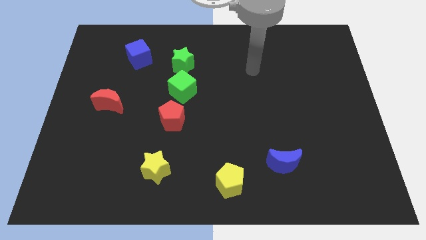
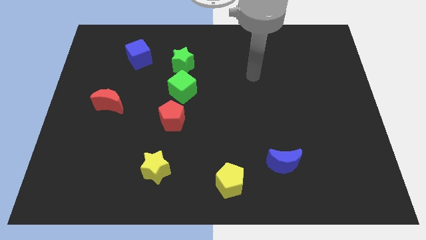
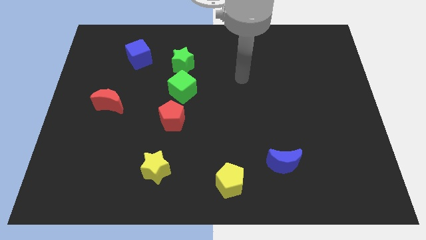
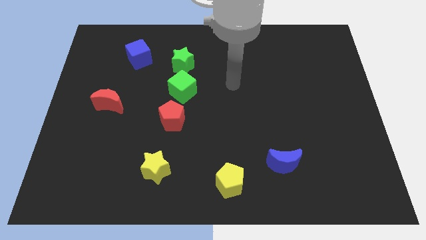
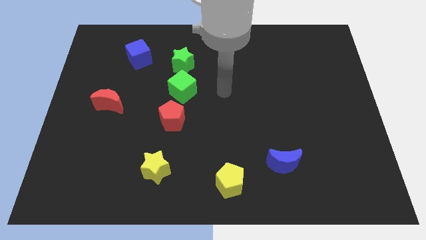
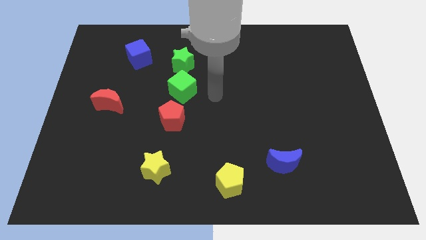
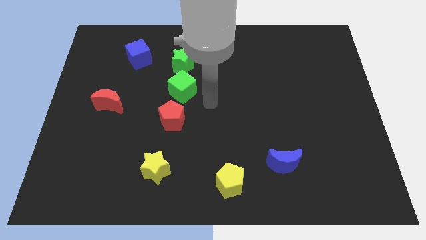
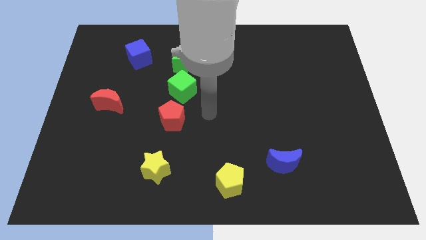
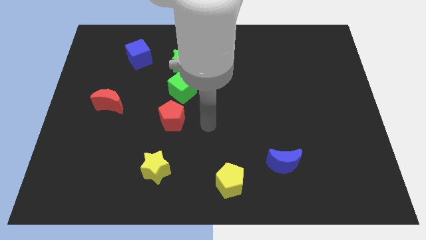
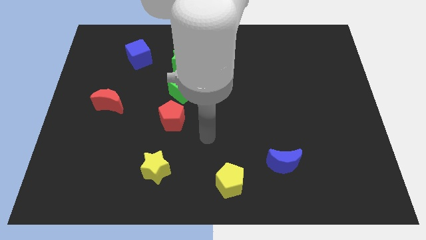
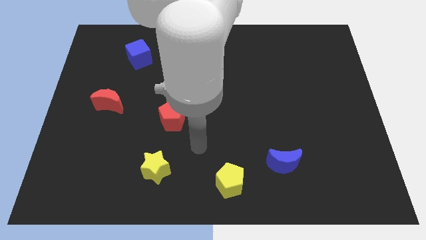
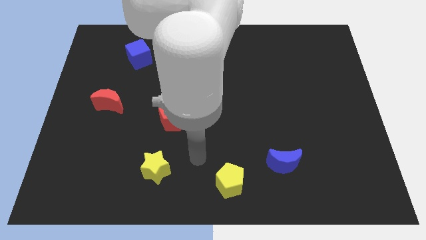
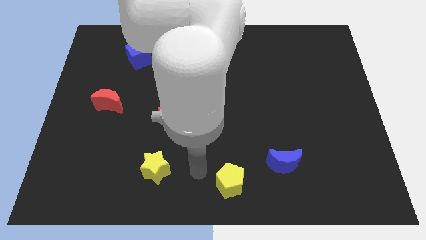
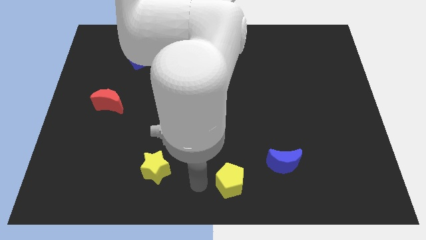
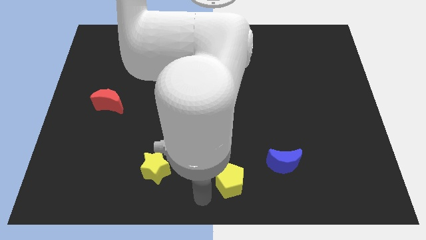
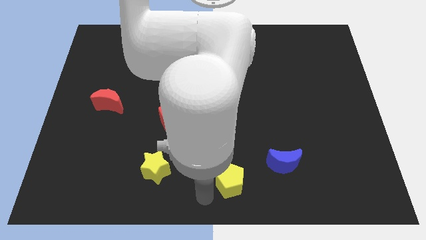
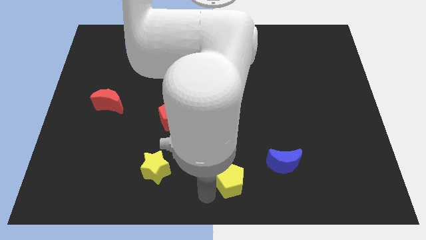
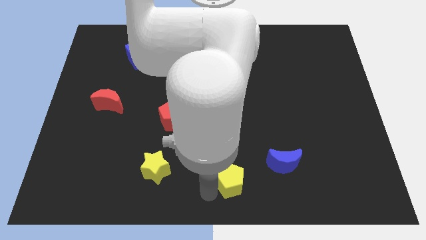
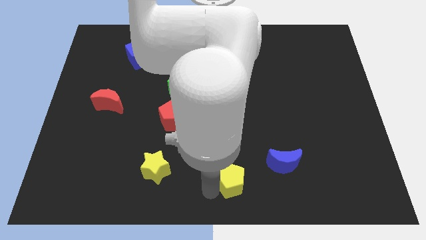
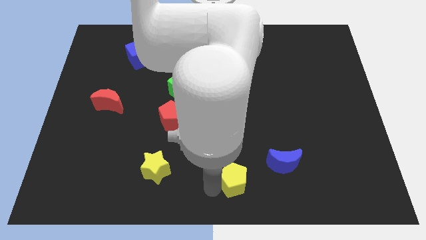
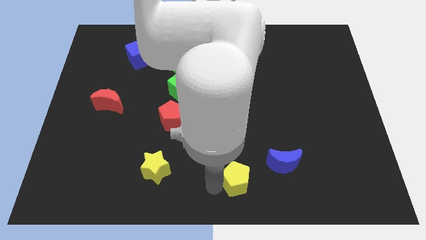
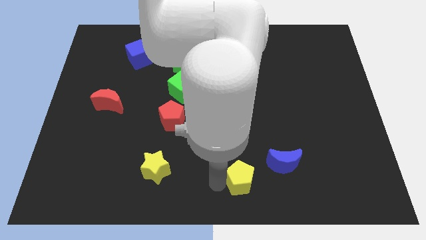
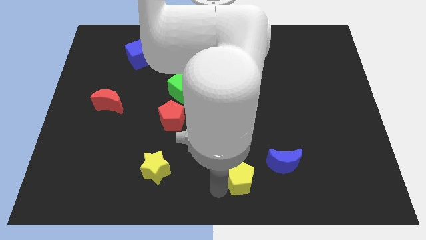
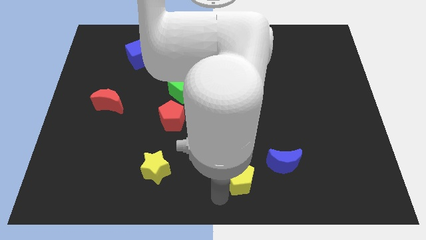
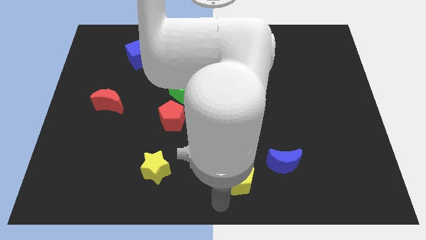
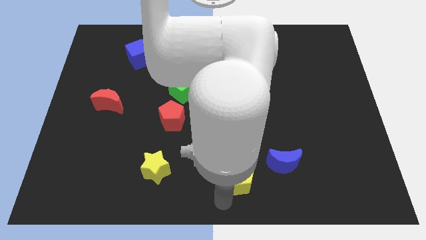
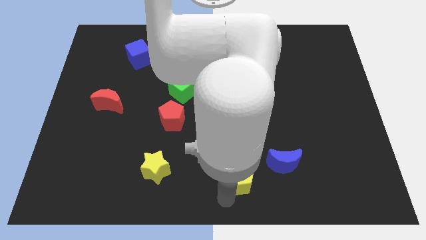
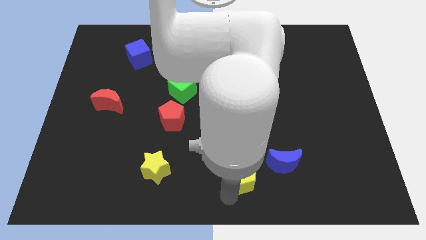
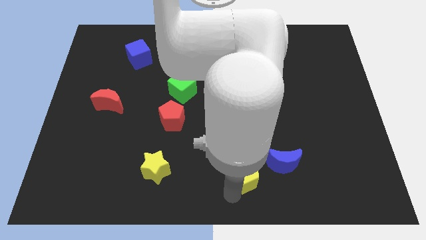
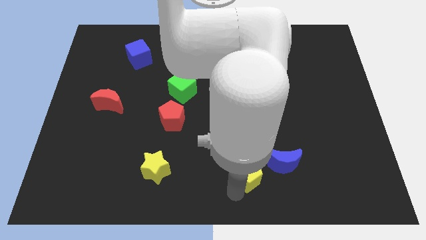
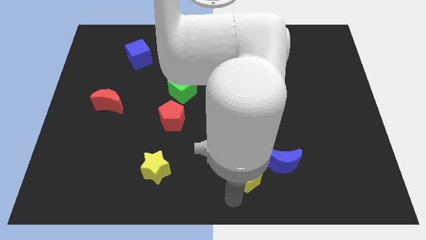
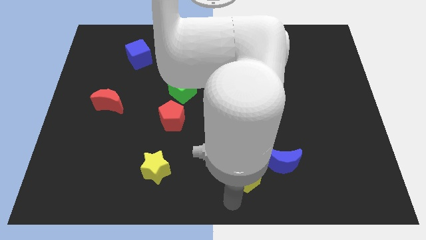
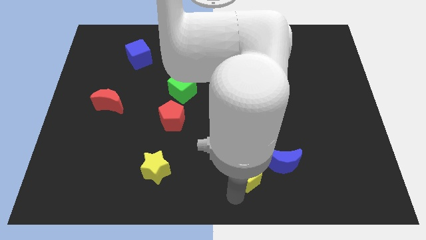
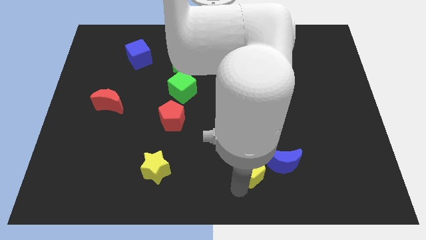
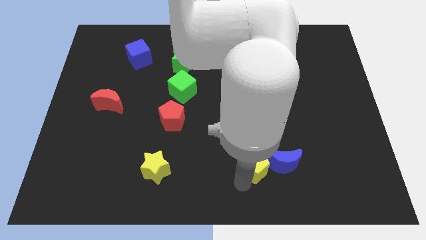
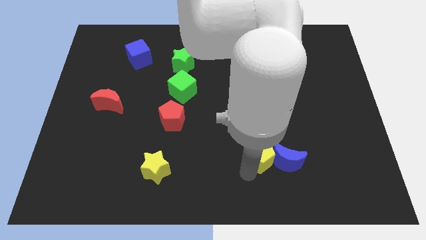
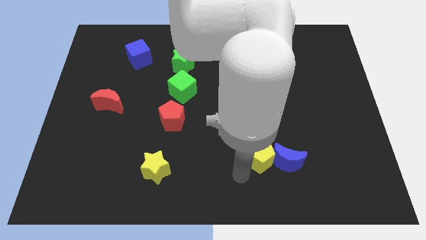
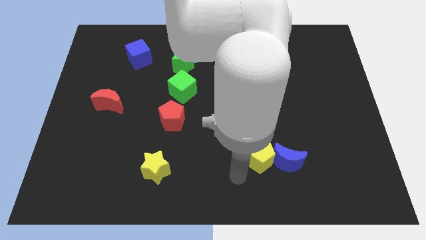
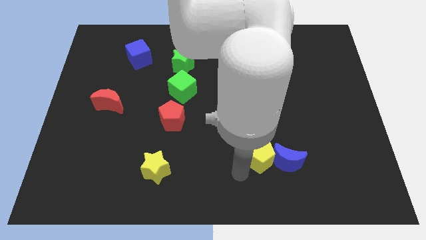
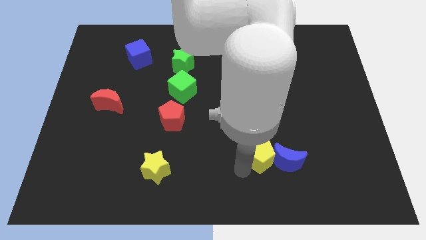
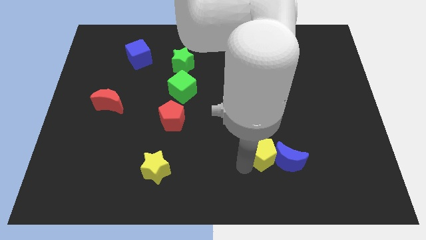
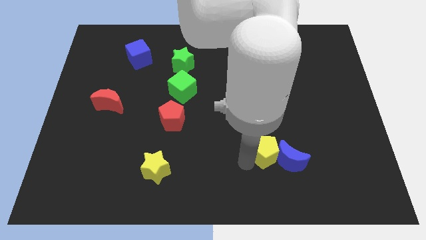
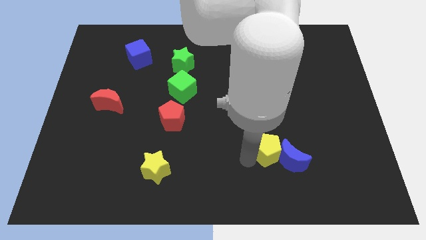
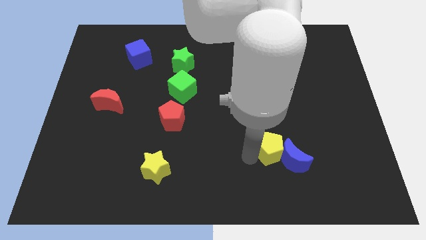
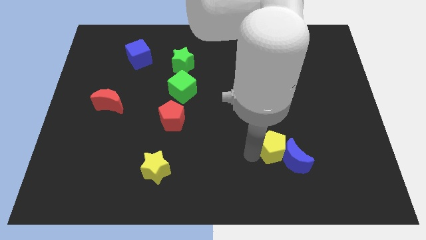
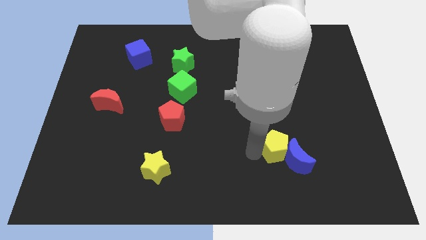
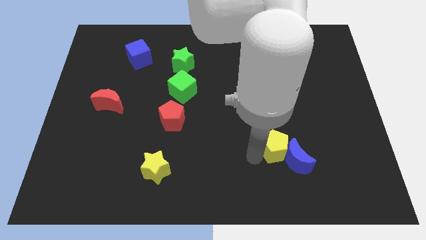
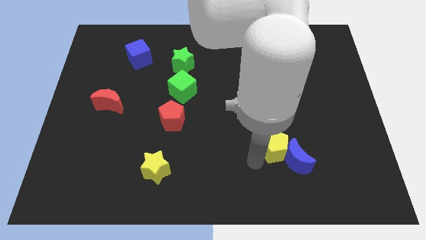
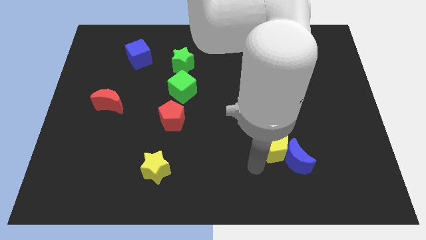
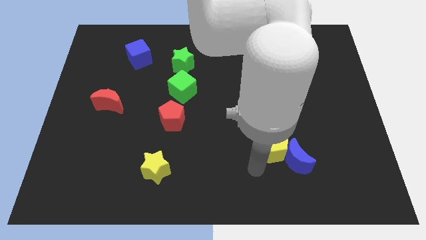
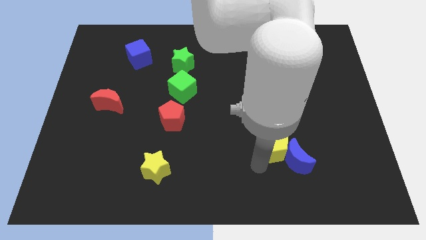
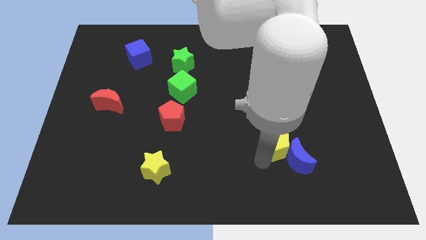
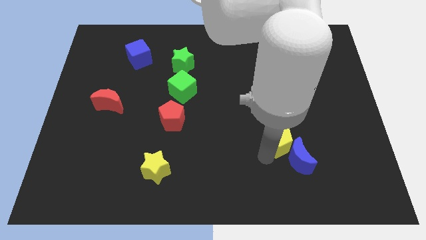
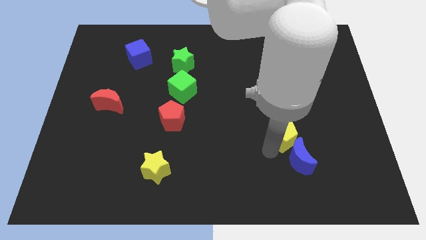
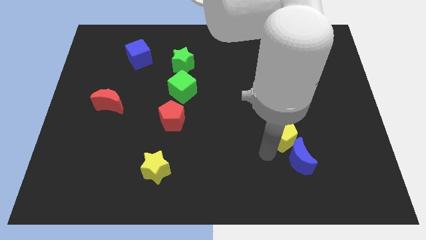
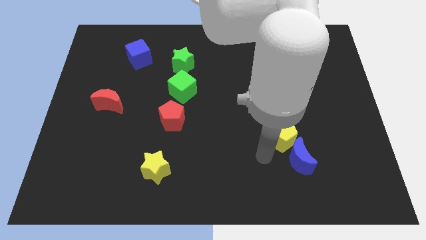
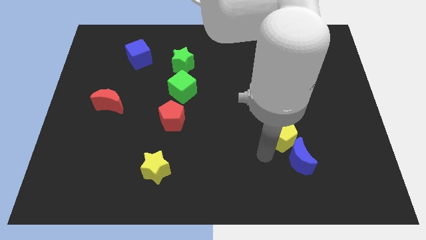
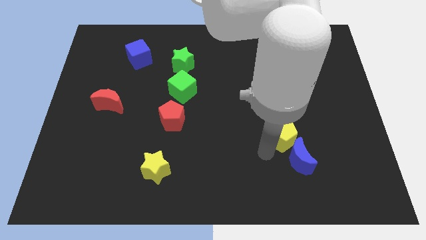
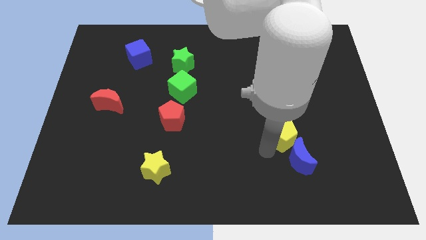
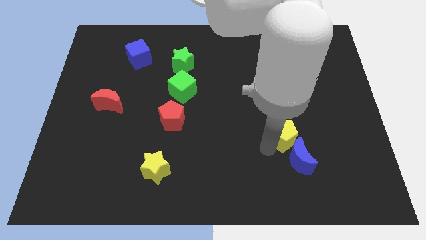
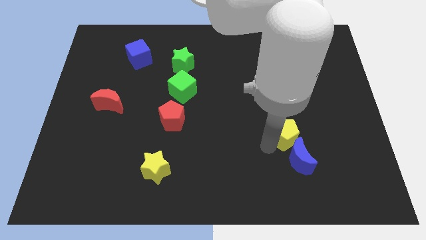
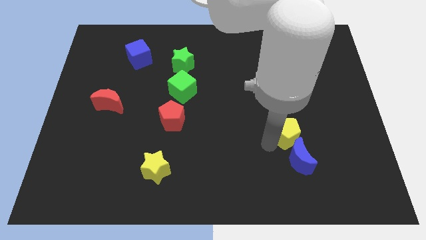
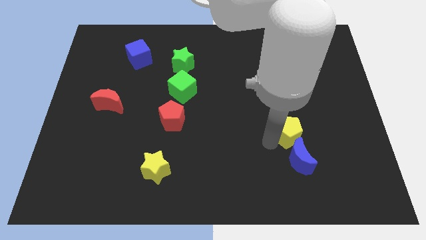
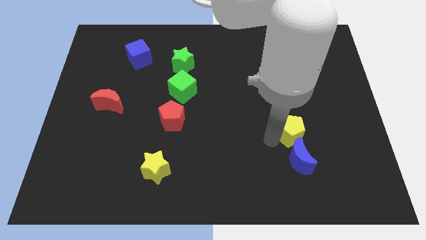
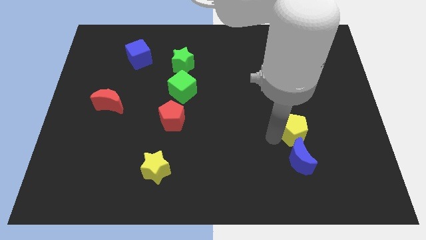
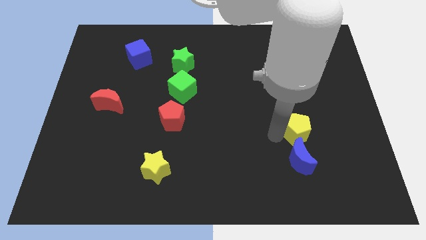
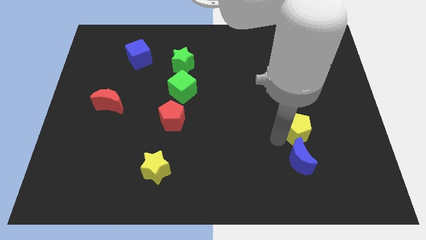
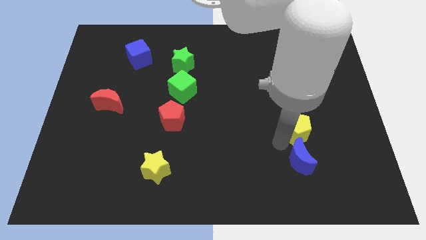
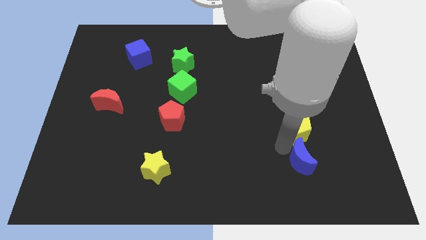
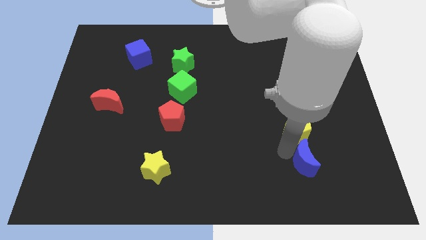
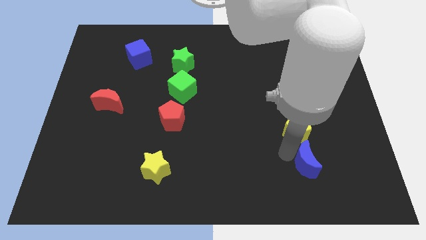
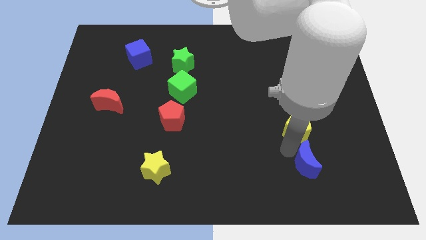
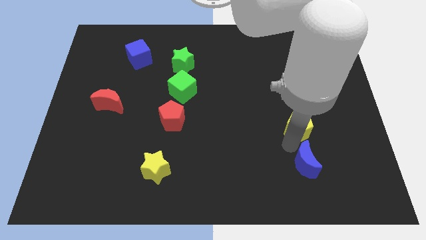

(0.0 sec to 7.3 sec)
push the yellow pentagon diagonally up and right

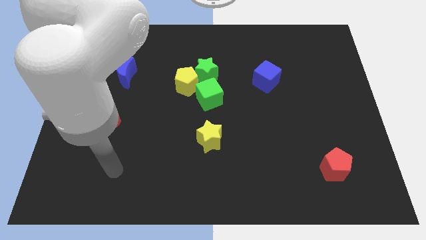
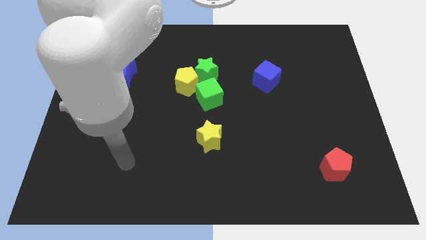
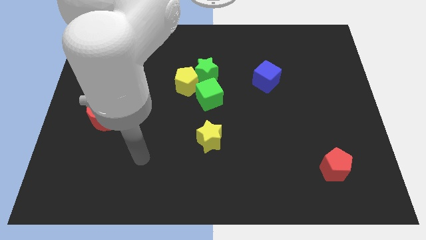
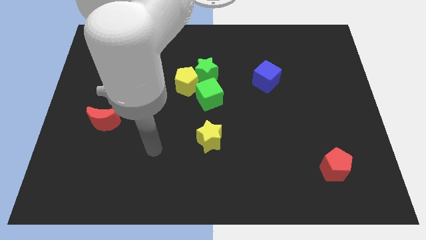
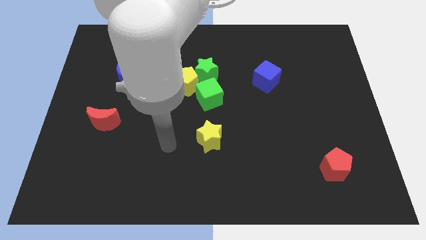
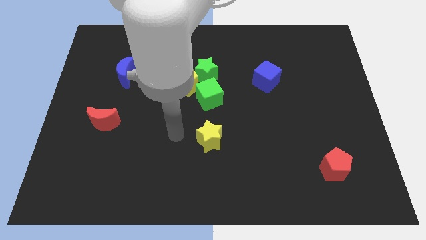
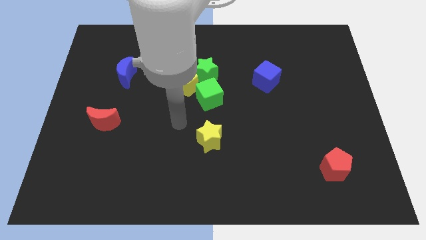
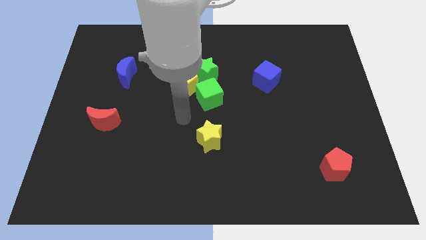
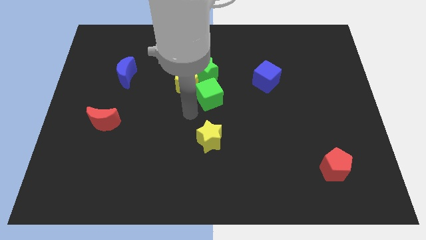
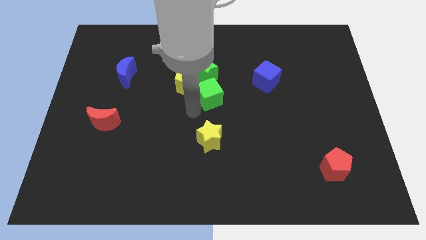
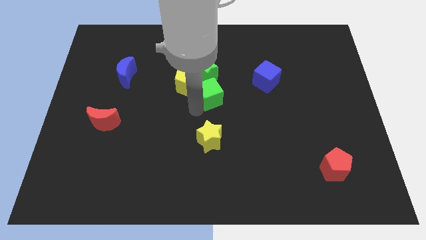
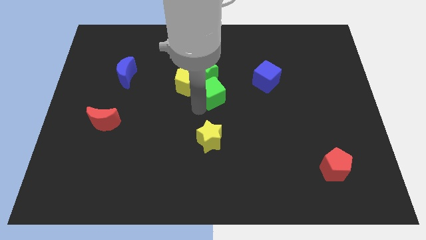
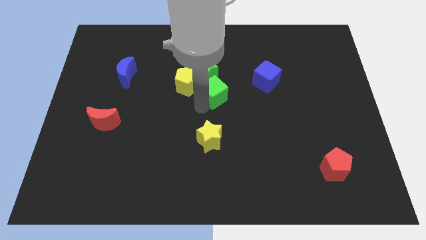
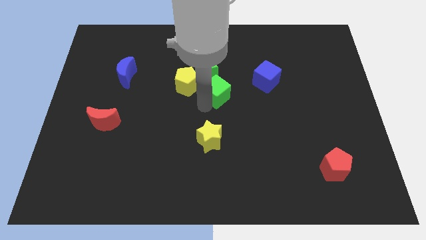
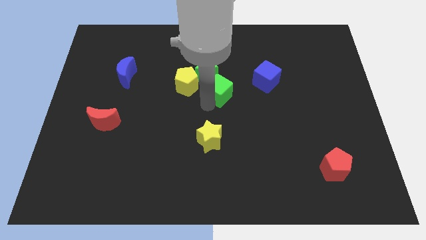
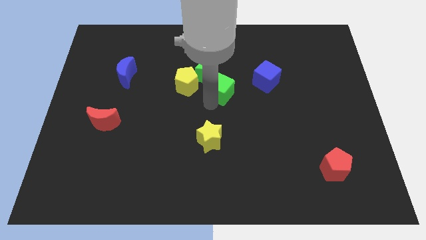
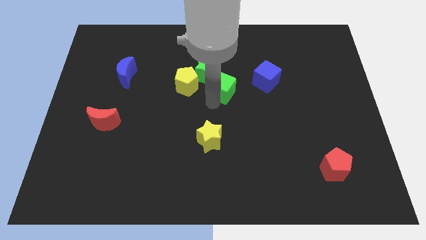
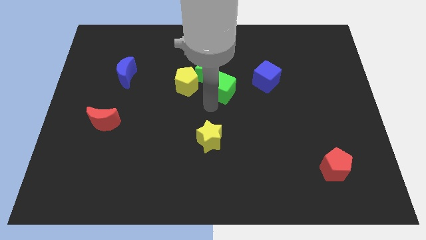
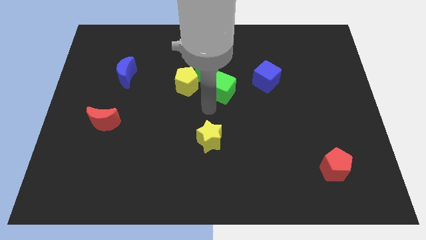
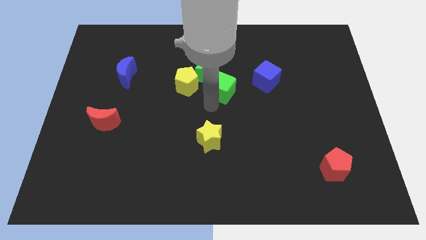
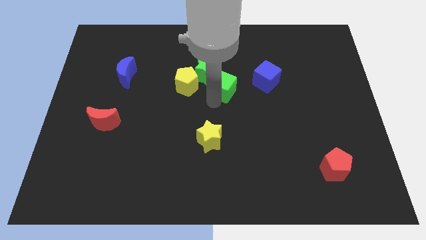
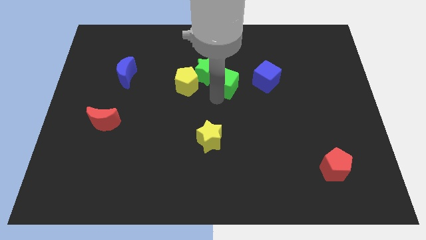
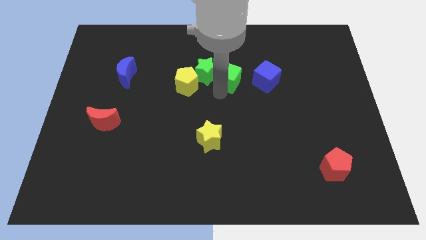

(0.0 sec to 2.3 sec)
move the green cube a bit diagonally upwards and to the right
